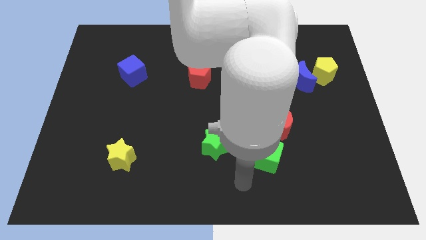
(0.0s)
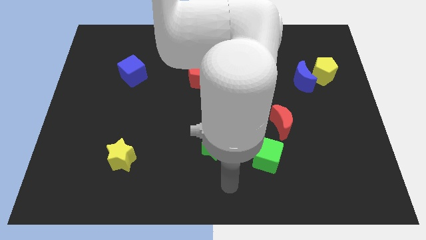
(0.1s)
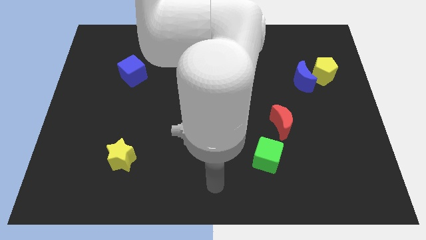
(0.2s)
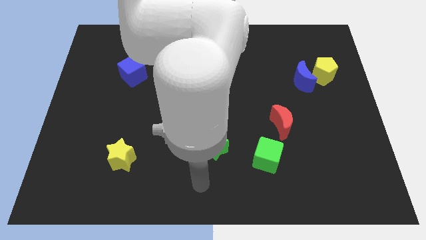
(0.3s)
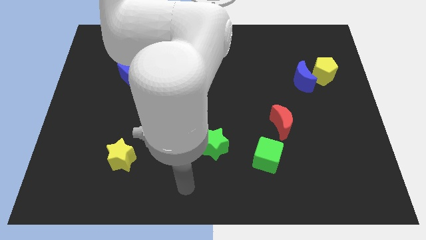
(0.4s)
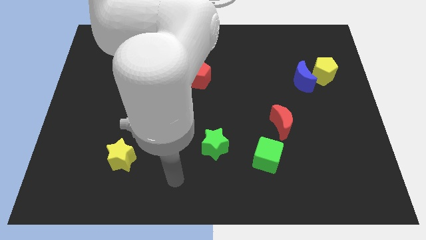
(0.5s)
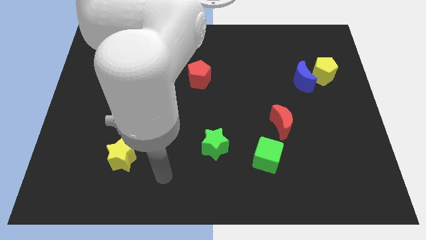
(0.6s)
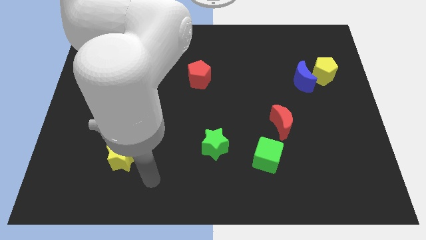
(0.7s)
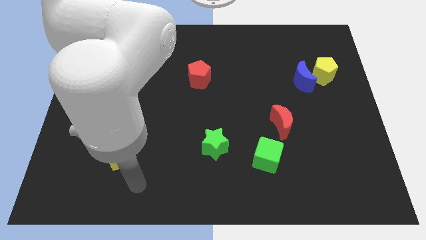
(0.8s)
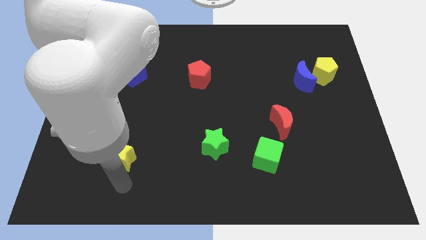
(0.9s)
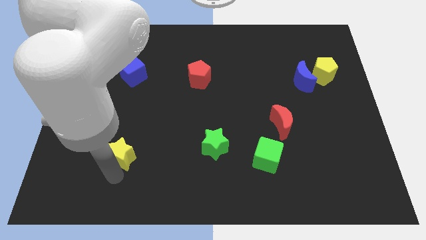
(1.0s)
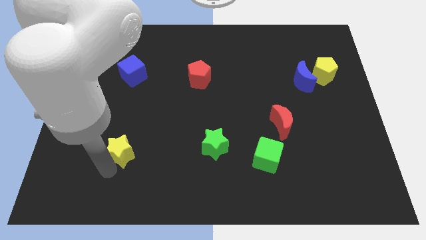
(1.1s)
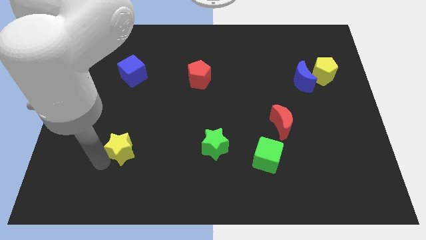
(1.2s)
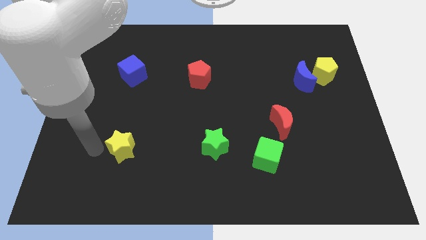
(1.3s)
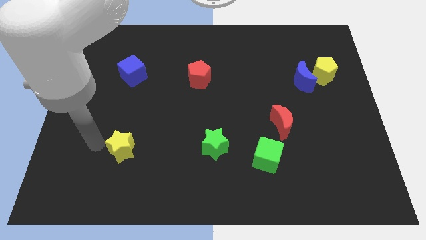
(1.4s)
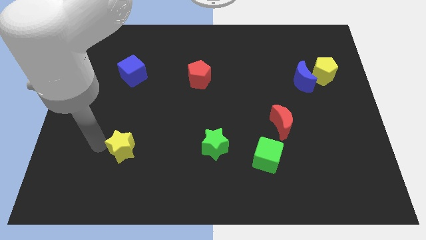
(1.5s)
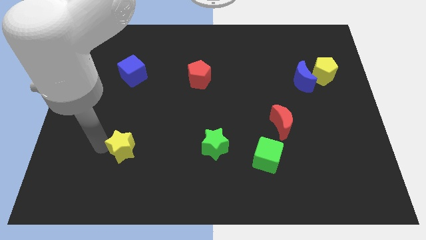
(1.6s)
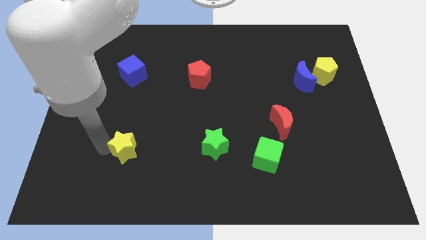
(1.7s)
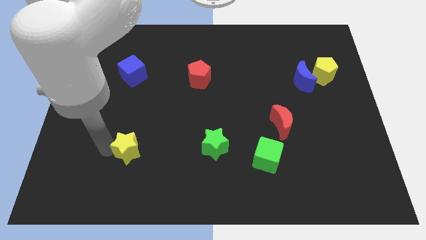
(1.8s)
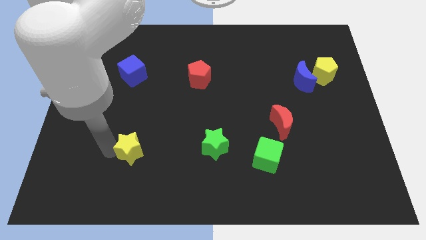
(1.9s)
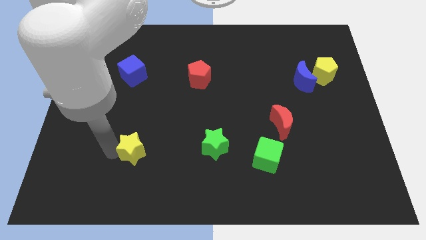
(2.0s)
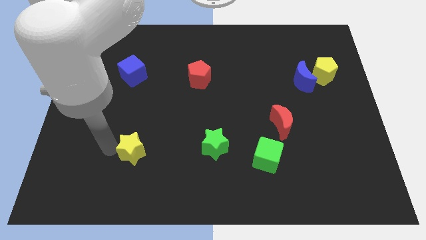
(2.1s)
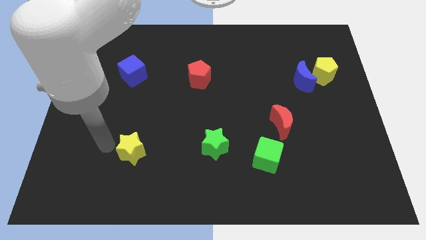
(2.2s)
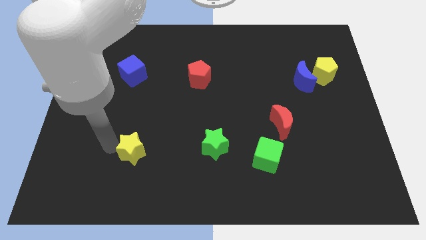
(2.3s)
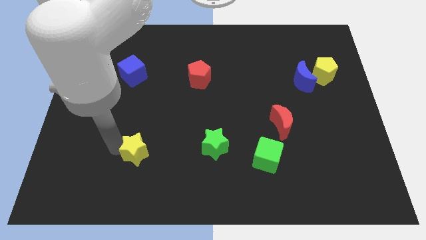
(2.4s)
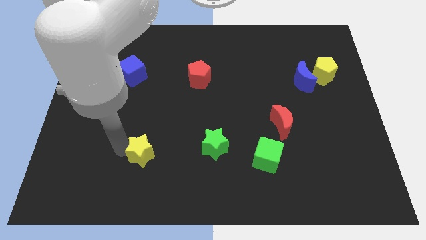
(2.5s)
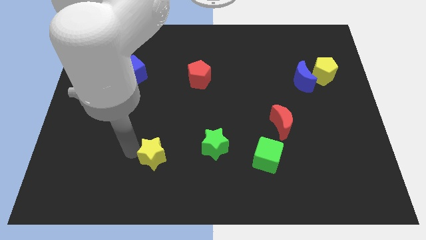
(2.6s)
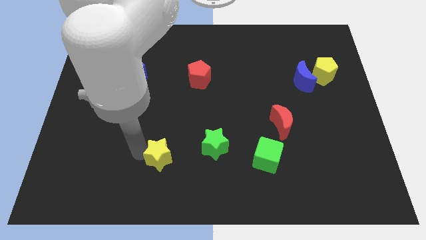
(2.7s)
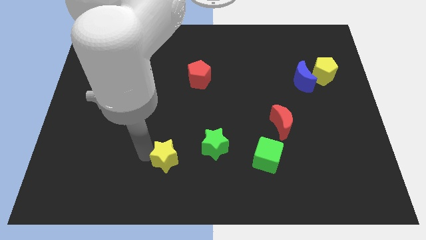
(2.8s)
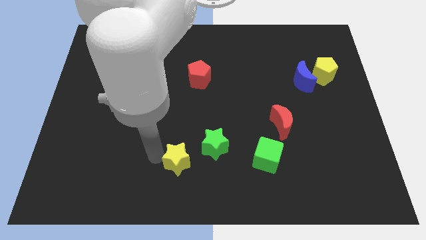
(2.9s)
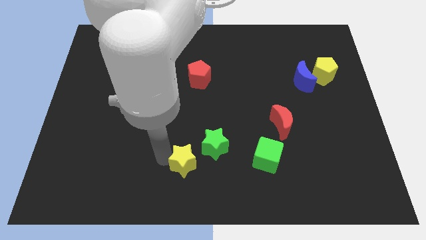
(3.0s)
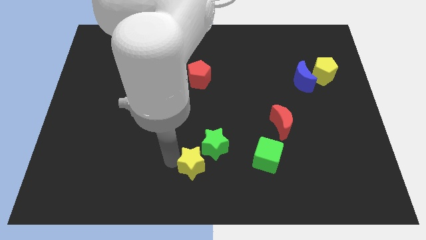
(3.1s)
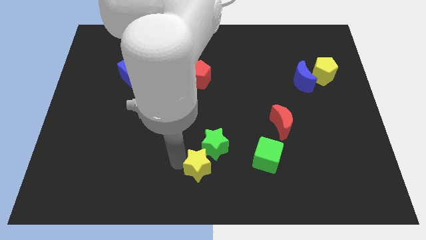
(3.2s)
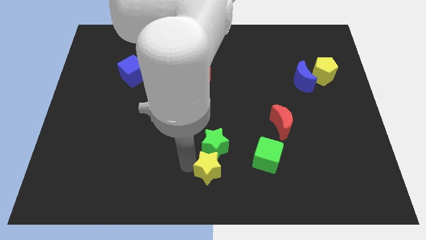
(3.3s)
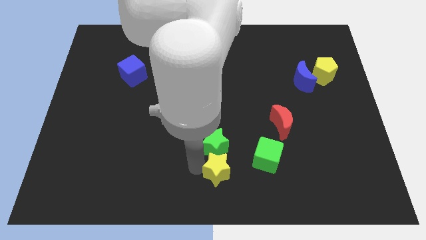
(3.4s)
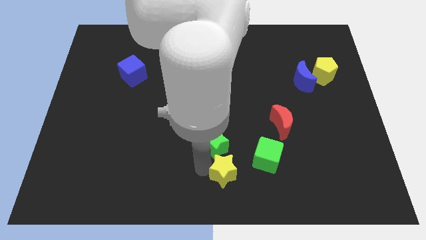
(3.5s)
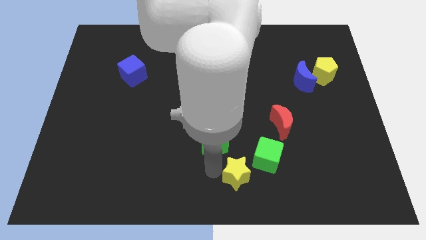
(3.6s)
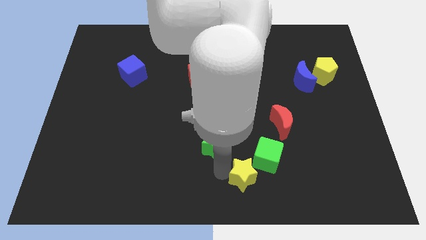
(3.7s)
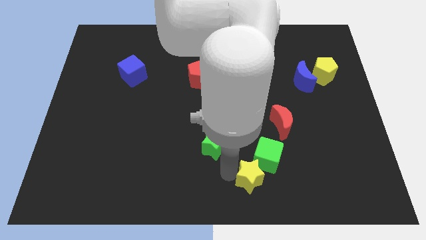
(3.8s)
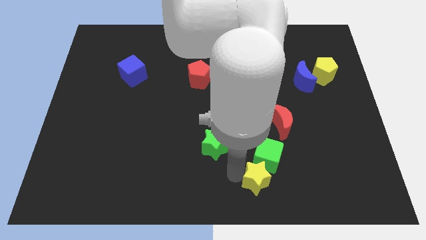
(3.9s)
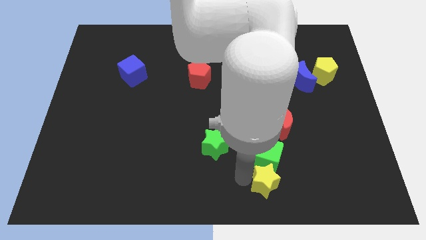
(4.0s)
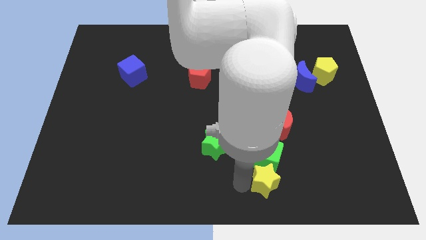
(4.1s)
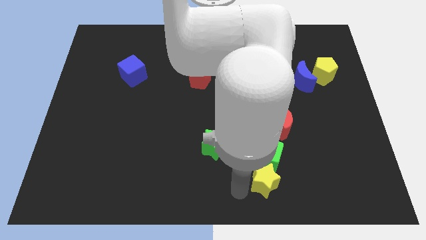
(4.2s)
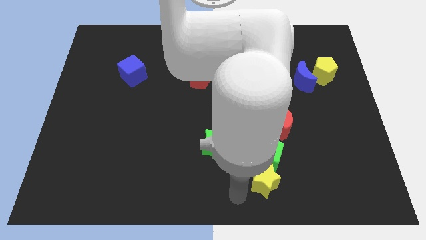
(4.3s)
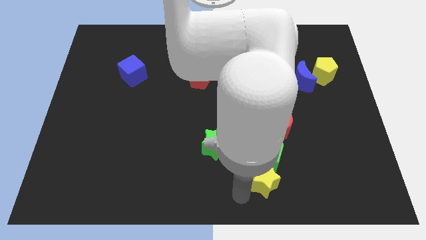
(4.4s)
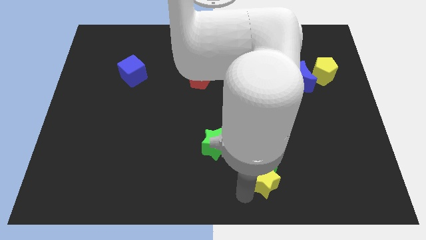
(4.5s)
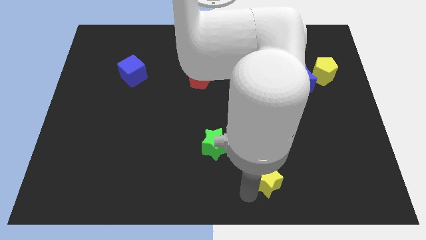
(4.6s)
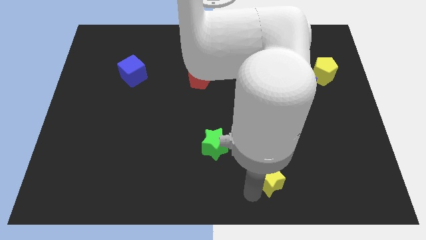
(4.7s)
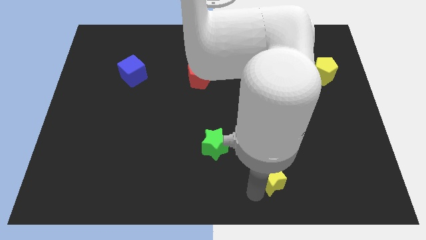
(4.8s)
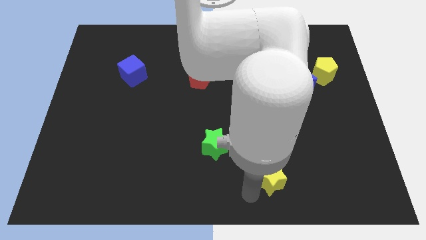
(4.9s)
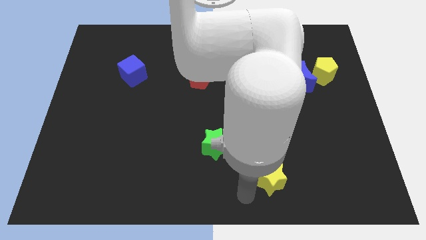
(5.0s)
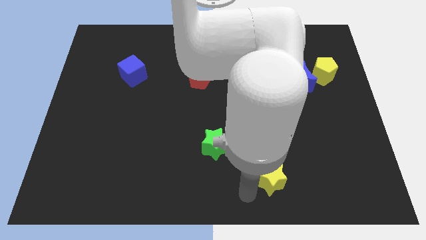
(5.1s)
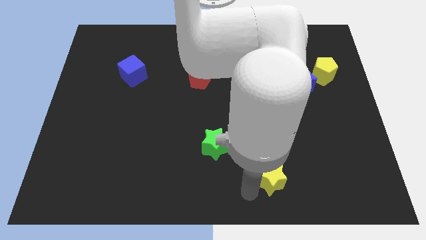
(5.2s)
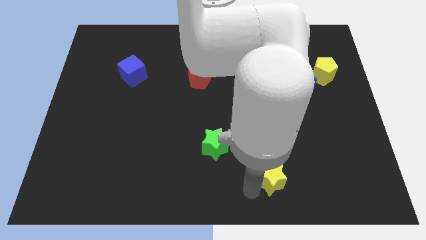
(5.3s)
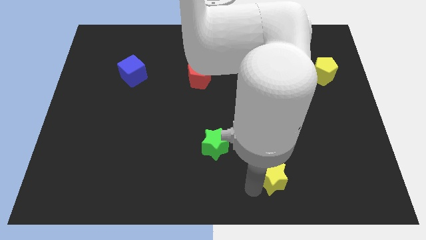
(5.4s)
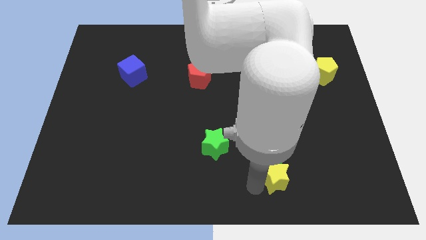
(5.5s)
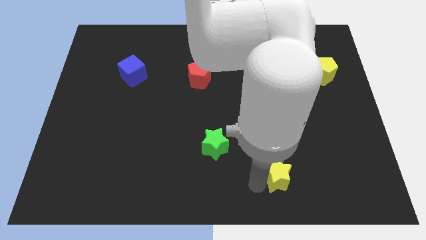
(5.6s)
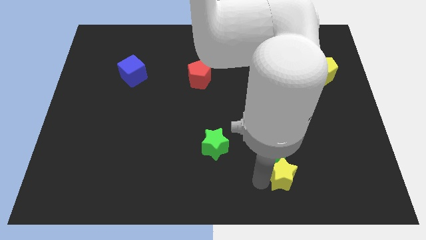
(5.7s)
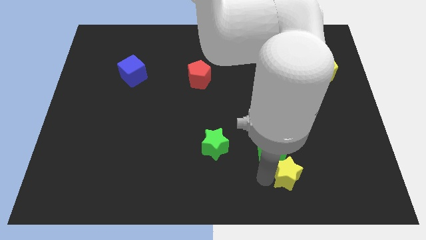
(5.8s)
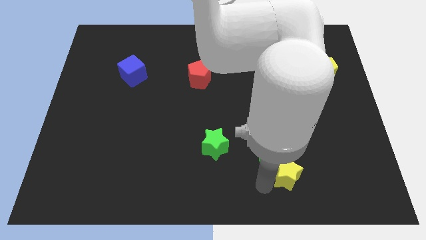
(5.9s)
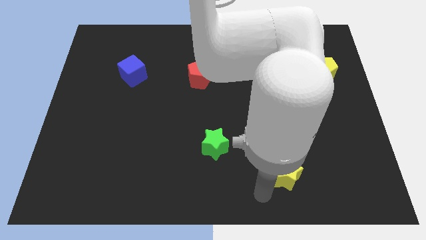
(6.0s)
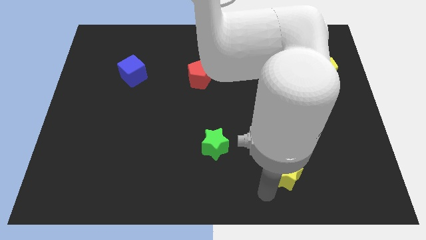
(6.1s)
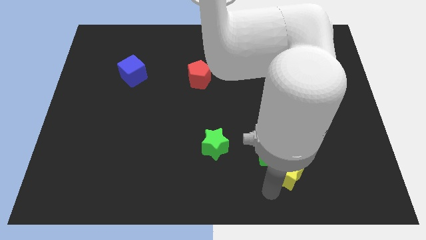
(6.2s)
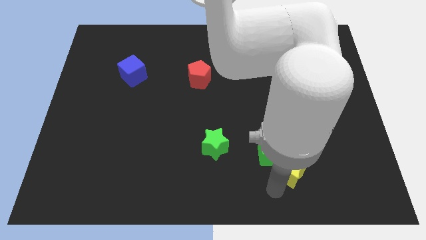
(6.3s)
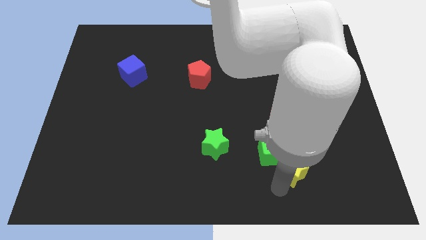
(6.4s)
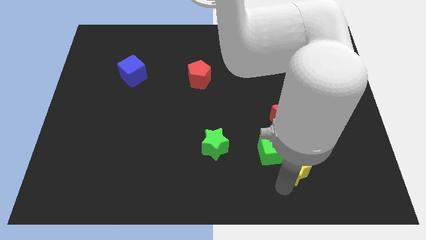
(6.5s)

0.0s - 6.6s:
put the yellow star to the right side of the green cube

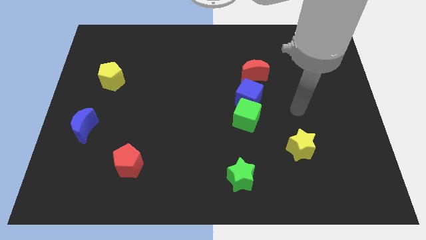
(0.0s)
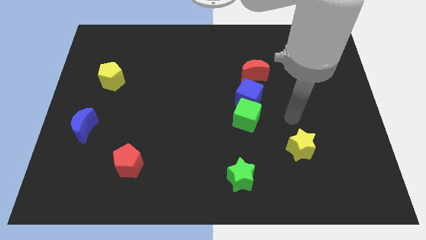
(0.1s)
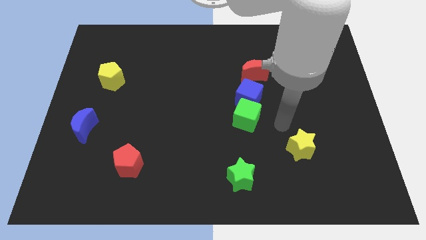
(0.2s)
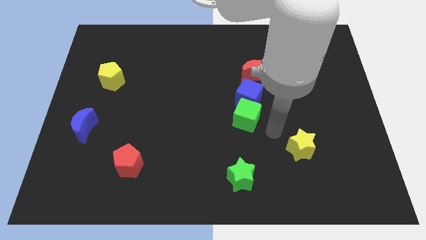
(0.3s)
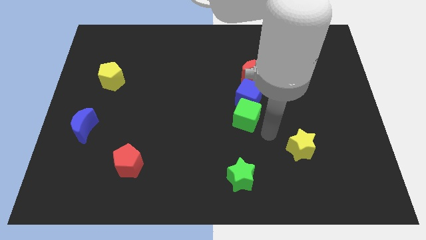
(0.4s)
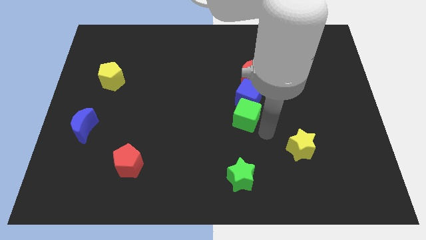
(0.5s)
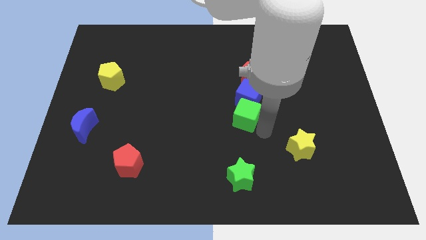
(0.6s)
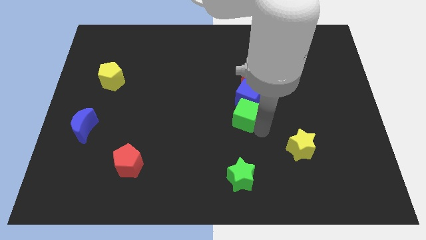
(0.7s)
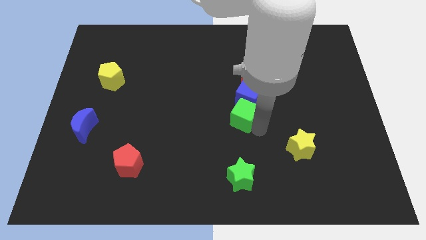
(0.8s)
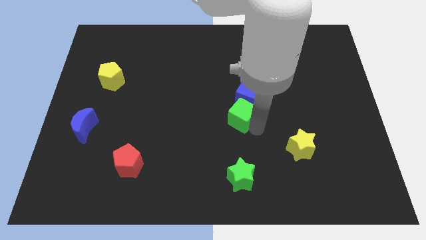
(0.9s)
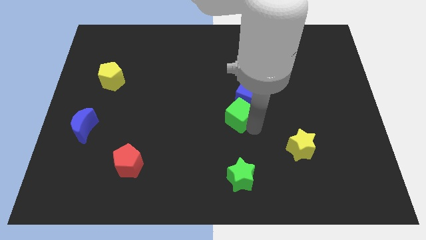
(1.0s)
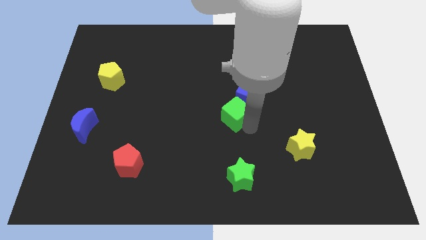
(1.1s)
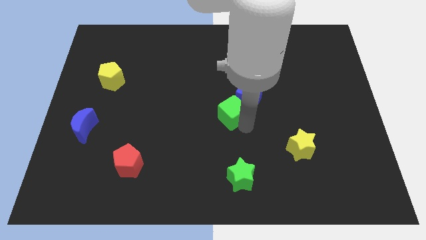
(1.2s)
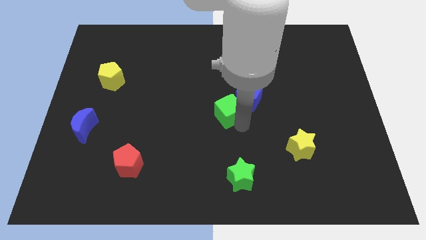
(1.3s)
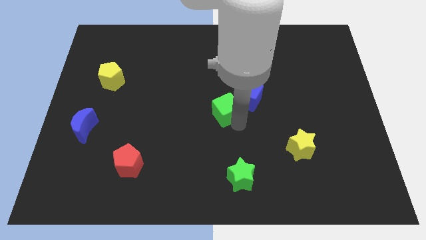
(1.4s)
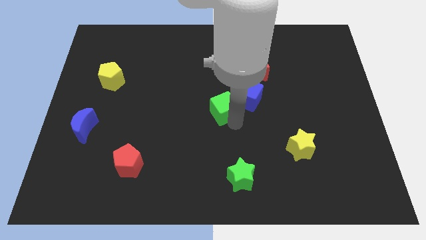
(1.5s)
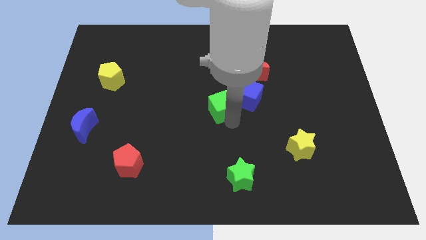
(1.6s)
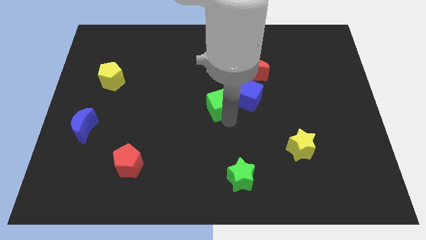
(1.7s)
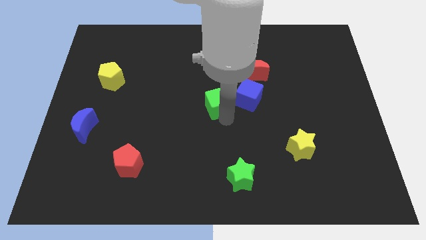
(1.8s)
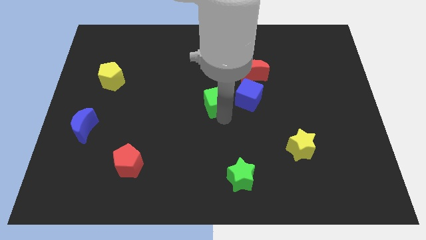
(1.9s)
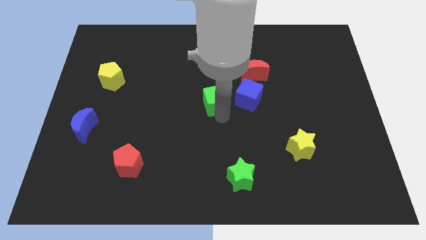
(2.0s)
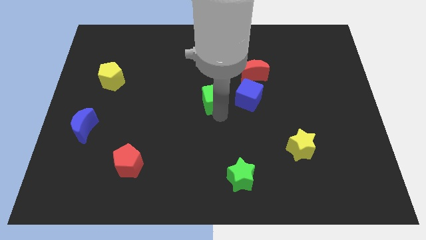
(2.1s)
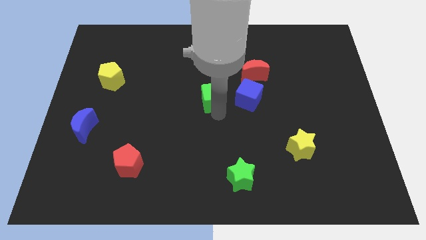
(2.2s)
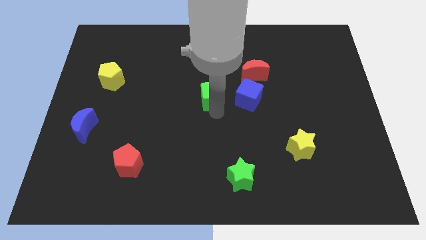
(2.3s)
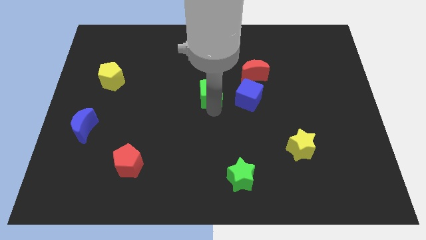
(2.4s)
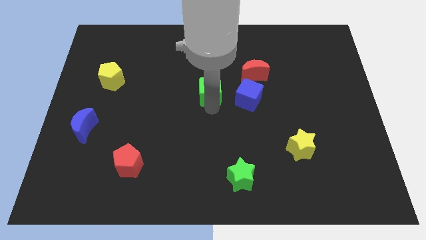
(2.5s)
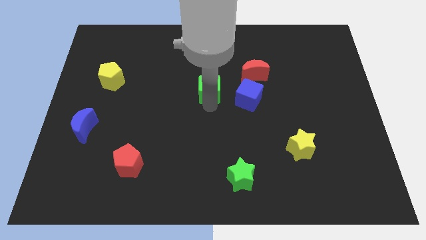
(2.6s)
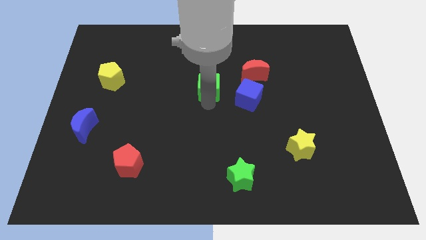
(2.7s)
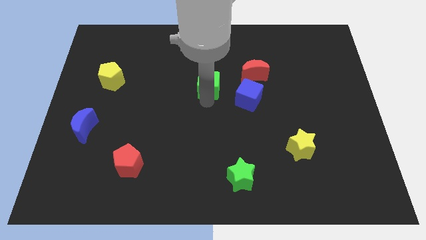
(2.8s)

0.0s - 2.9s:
push the green cube to the left side of the red moon
